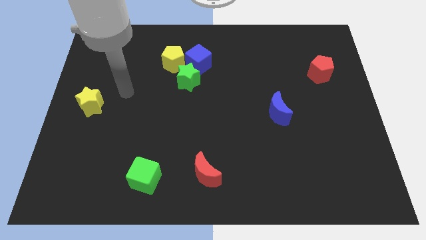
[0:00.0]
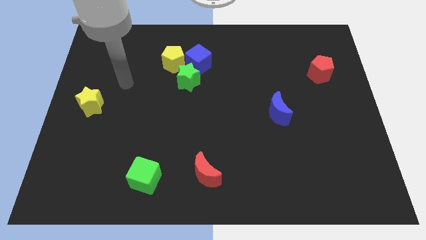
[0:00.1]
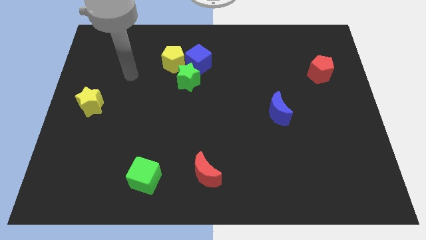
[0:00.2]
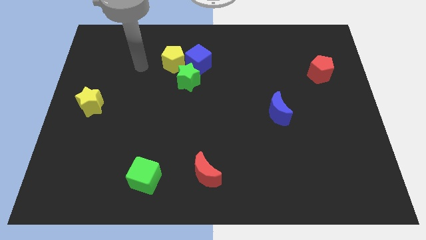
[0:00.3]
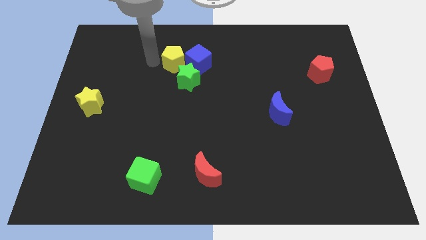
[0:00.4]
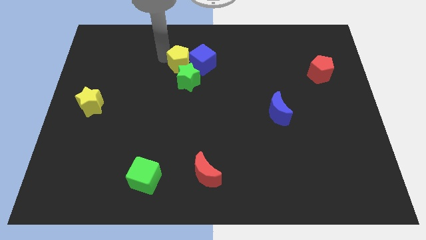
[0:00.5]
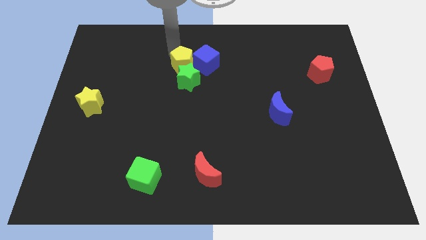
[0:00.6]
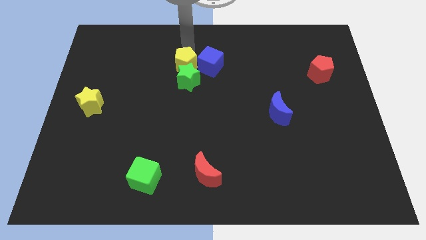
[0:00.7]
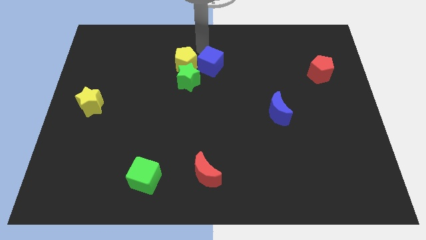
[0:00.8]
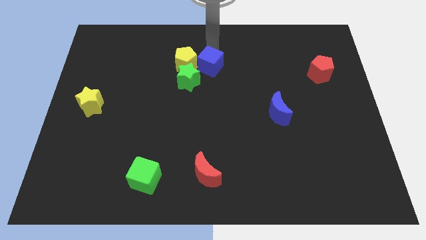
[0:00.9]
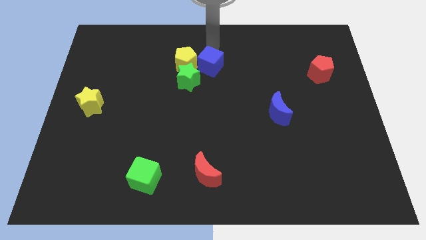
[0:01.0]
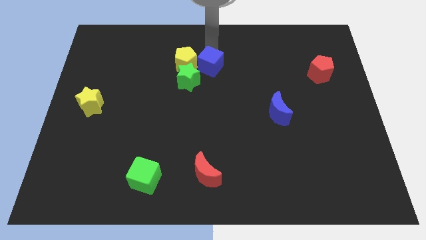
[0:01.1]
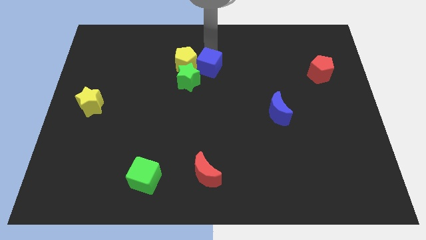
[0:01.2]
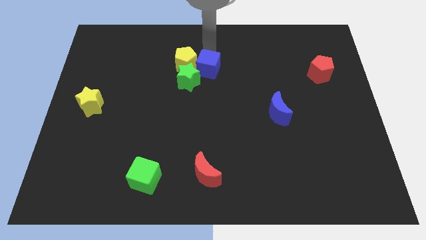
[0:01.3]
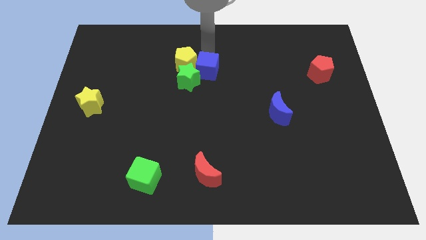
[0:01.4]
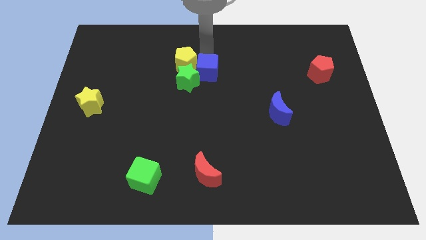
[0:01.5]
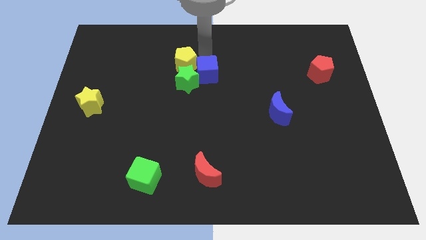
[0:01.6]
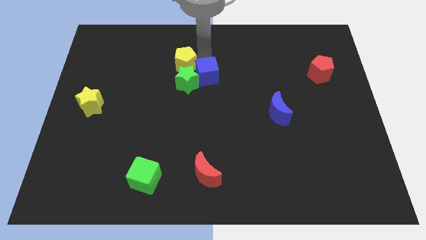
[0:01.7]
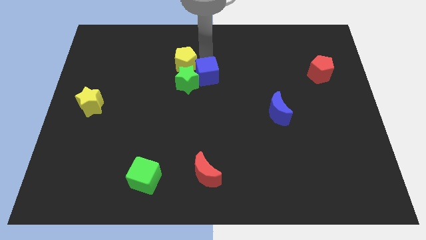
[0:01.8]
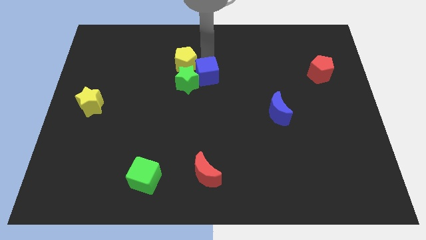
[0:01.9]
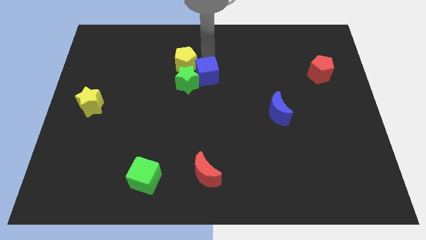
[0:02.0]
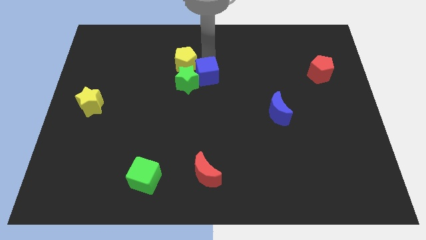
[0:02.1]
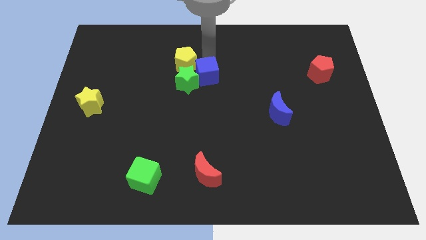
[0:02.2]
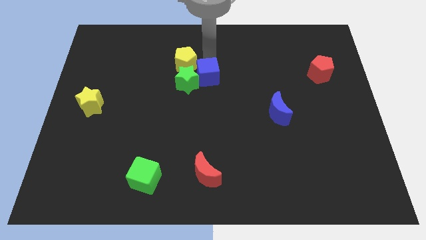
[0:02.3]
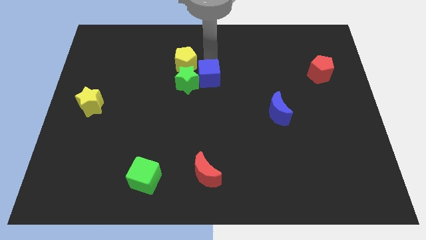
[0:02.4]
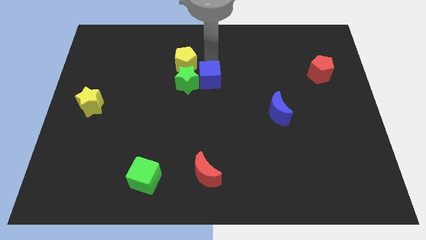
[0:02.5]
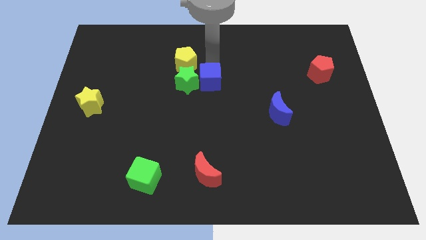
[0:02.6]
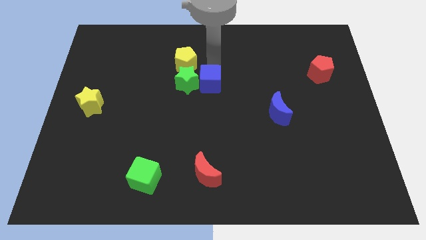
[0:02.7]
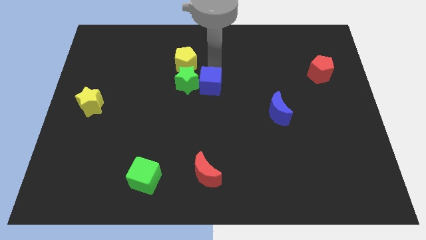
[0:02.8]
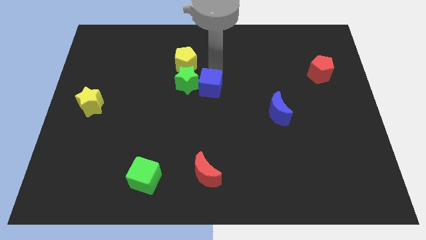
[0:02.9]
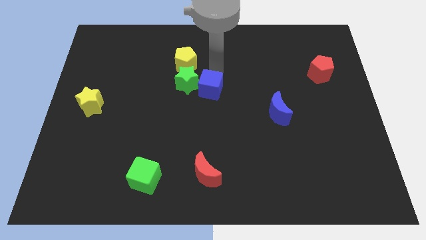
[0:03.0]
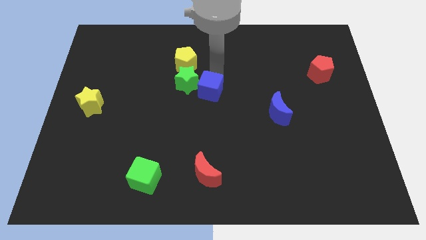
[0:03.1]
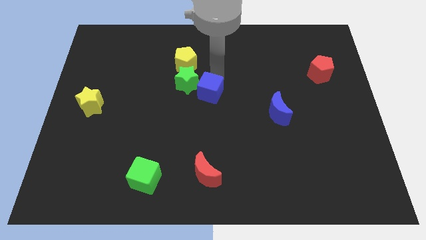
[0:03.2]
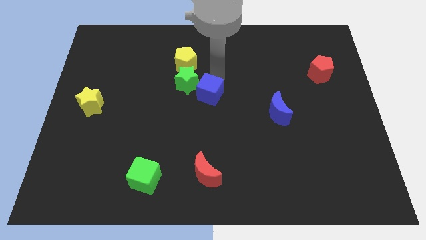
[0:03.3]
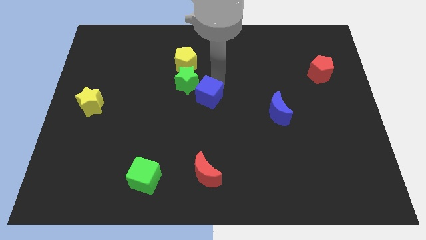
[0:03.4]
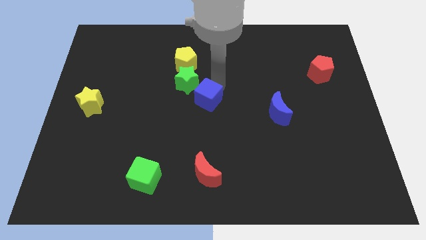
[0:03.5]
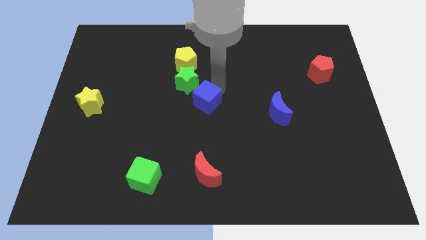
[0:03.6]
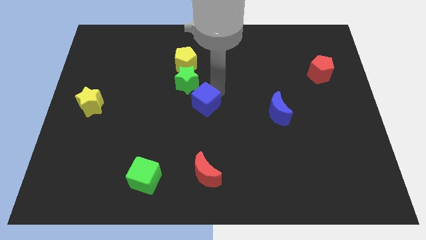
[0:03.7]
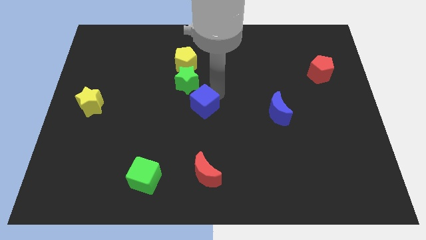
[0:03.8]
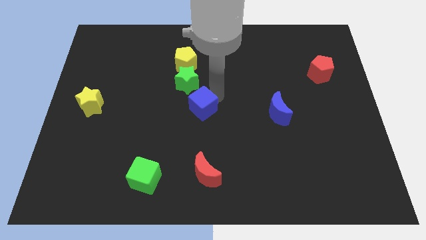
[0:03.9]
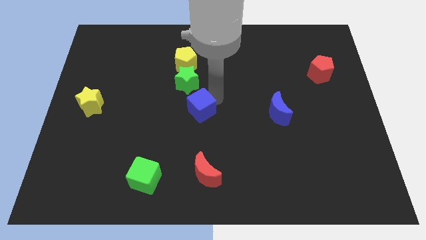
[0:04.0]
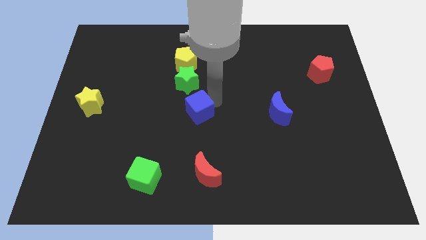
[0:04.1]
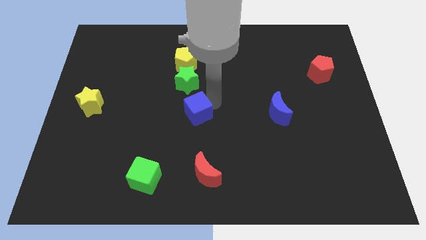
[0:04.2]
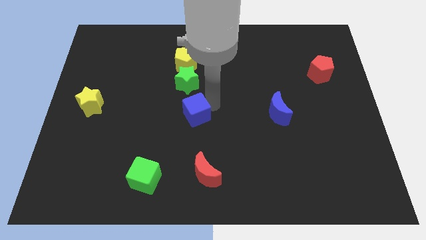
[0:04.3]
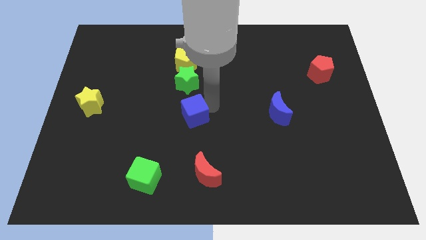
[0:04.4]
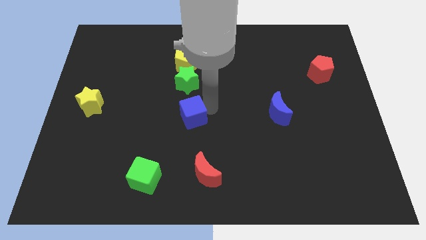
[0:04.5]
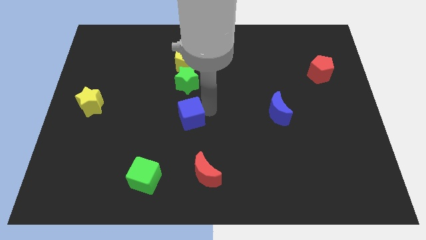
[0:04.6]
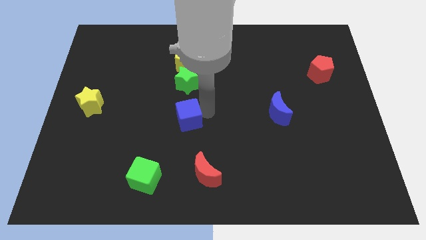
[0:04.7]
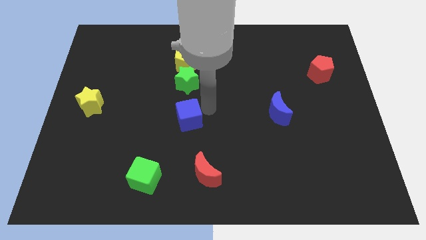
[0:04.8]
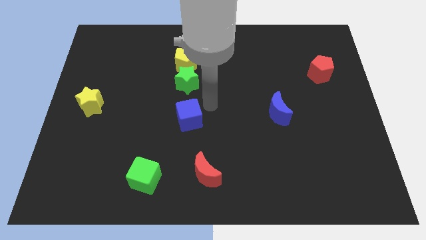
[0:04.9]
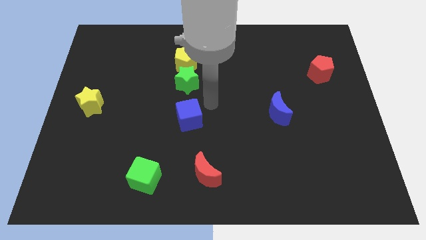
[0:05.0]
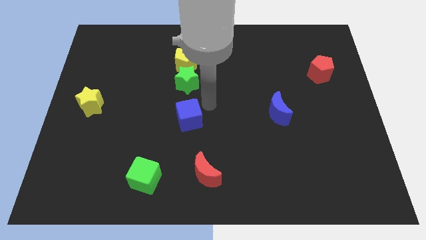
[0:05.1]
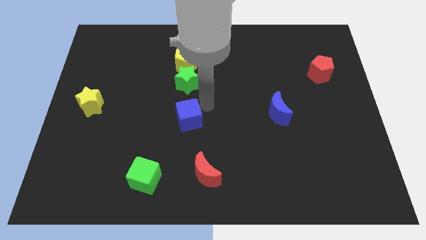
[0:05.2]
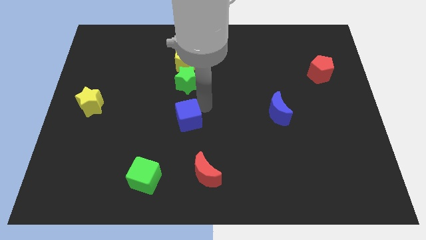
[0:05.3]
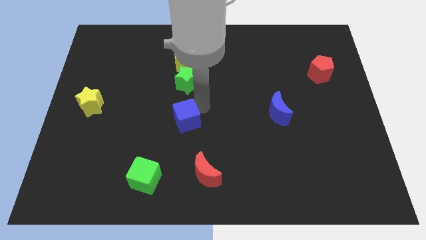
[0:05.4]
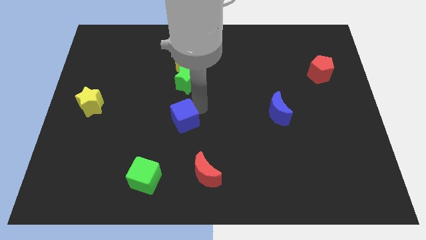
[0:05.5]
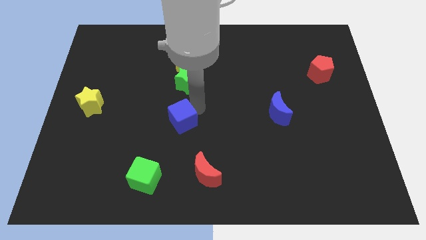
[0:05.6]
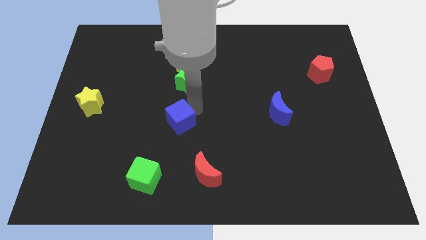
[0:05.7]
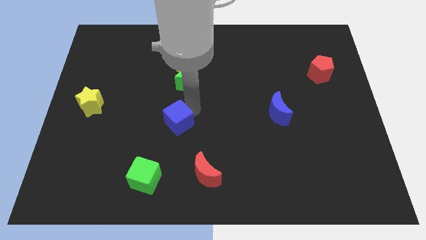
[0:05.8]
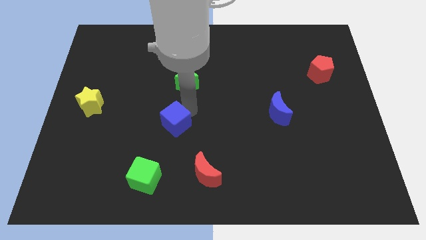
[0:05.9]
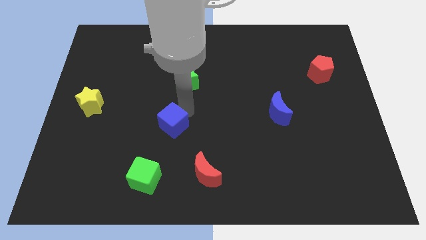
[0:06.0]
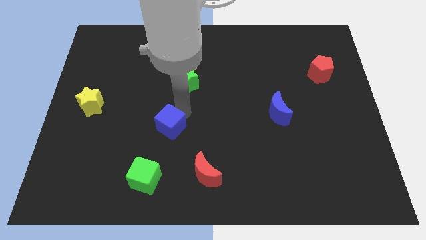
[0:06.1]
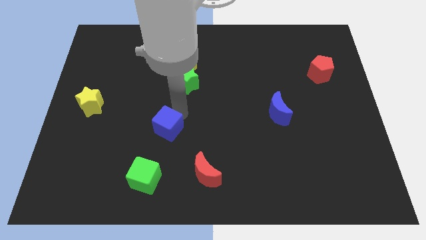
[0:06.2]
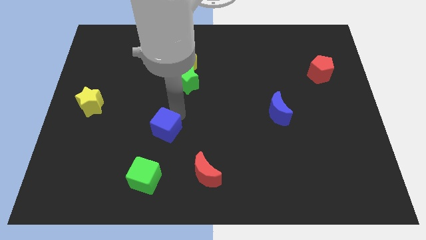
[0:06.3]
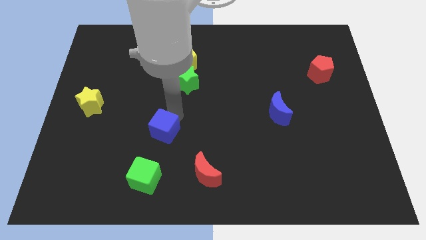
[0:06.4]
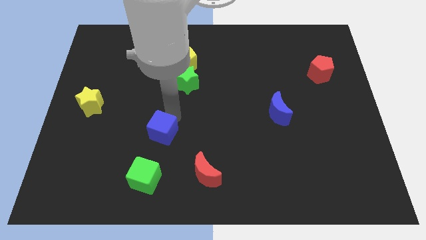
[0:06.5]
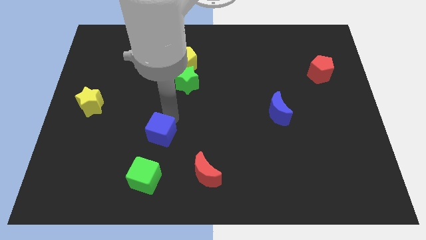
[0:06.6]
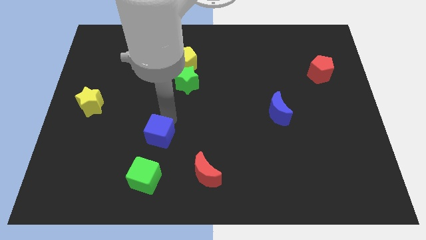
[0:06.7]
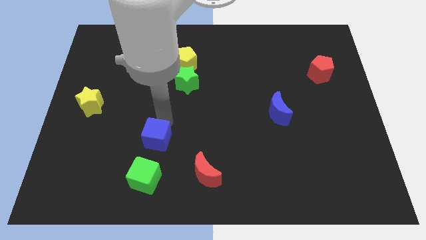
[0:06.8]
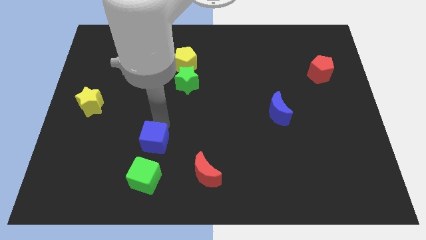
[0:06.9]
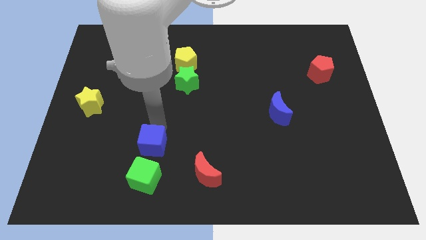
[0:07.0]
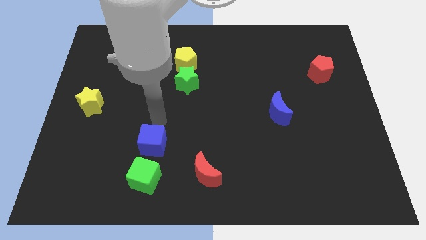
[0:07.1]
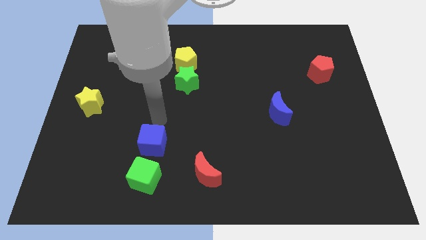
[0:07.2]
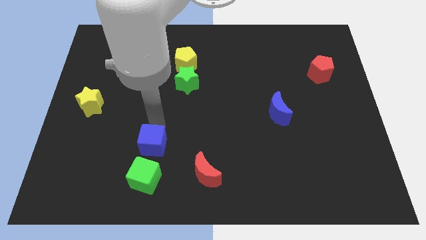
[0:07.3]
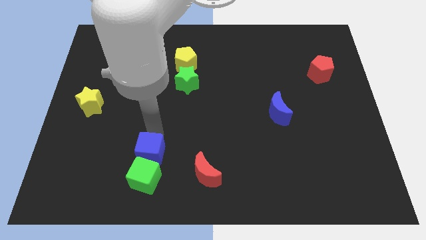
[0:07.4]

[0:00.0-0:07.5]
move the blue cube to the green cube
